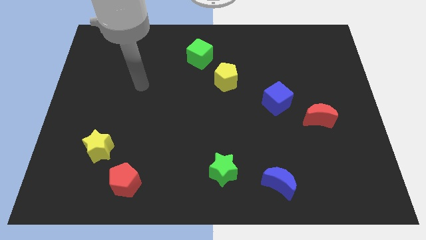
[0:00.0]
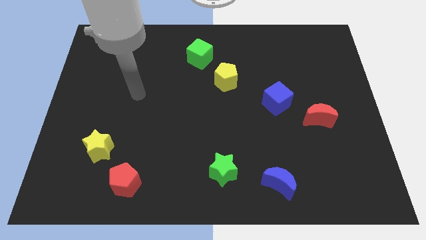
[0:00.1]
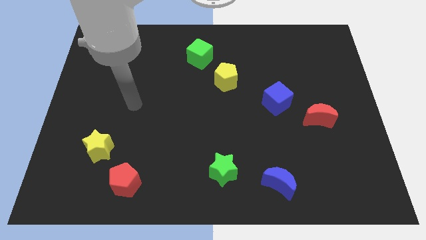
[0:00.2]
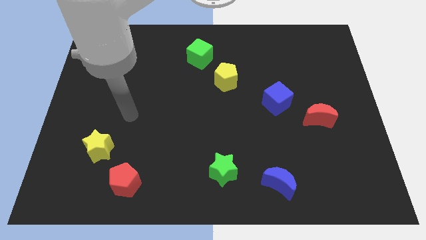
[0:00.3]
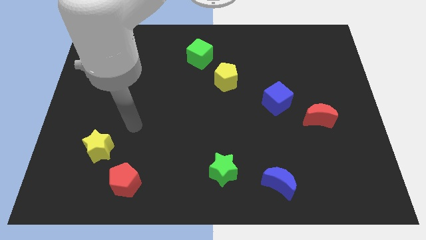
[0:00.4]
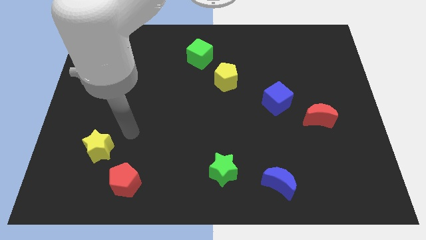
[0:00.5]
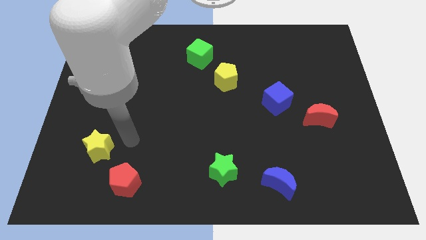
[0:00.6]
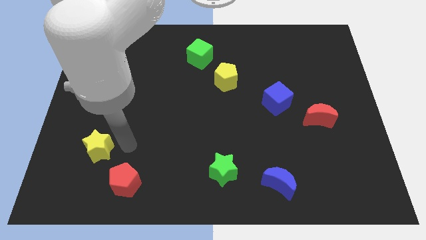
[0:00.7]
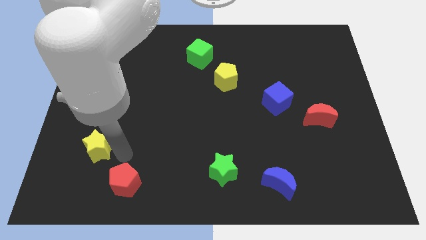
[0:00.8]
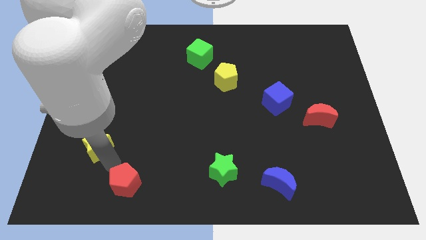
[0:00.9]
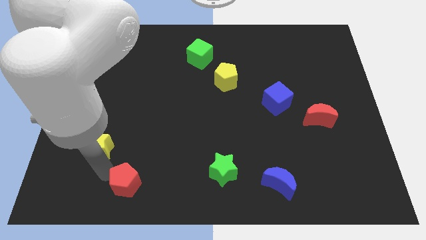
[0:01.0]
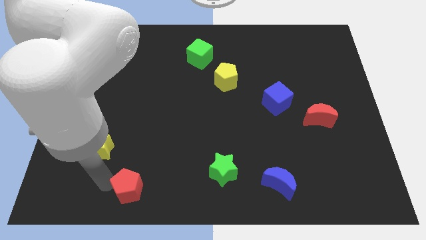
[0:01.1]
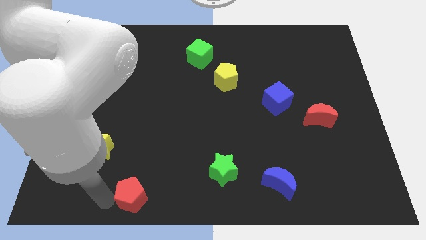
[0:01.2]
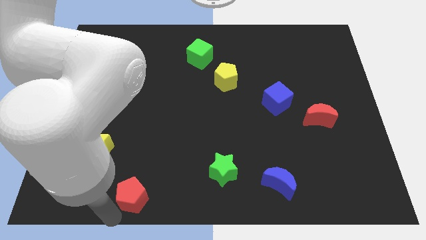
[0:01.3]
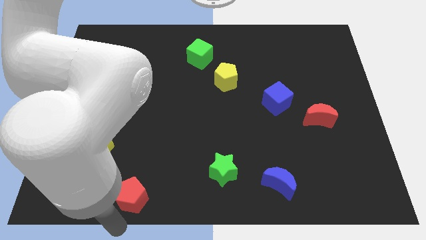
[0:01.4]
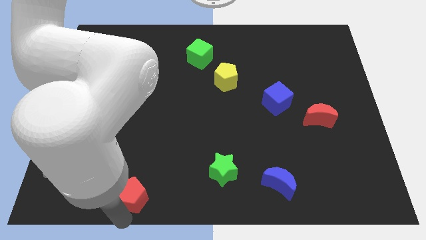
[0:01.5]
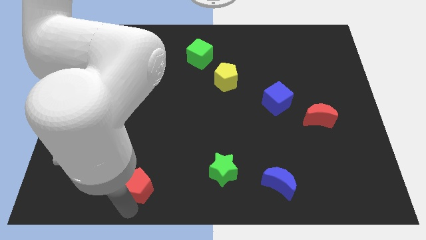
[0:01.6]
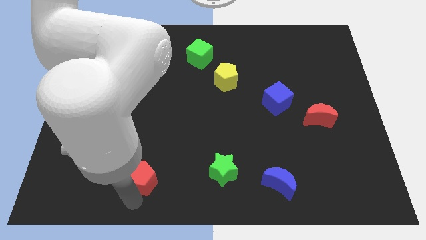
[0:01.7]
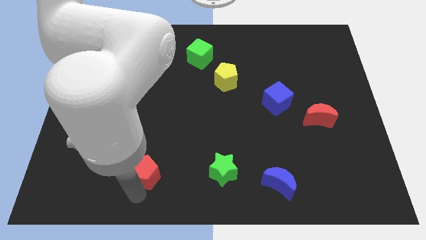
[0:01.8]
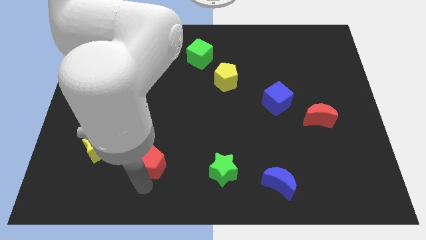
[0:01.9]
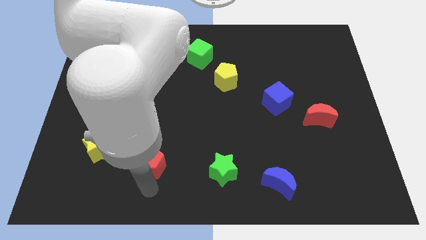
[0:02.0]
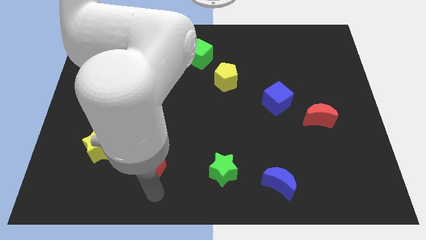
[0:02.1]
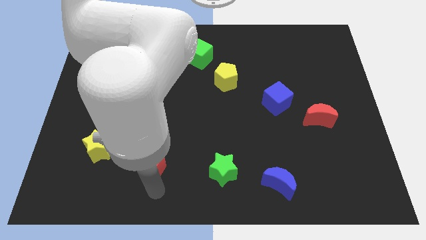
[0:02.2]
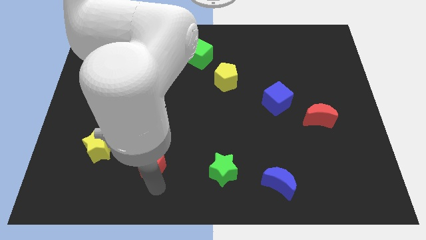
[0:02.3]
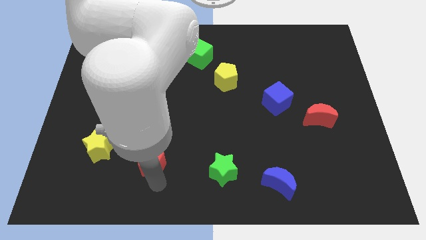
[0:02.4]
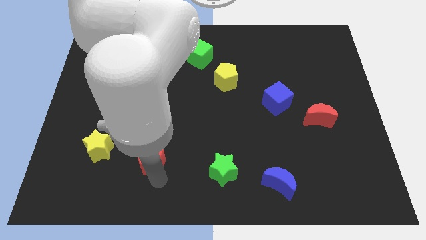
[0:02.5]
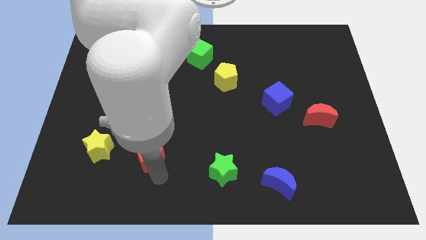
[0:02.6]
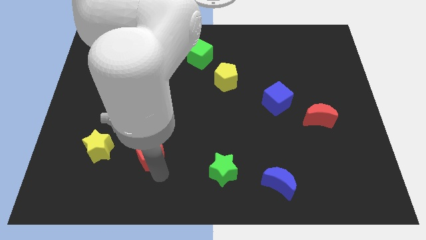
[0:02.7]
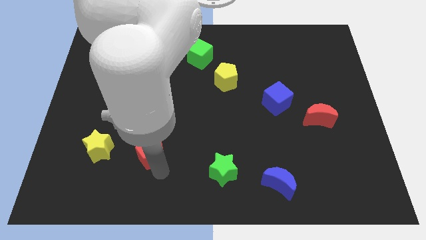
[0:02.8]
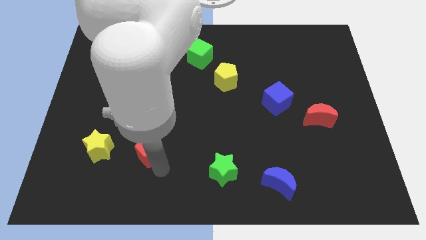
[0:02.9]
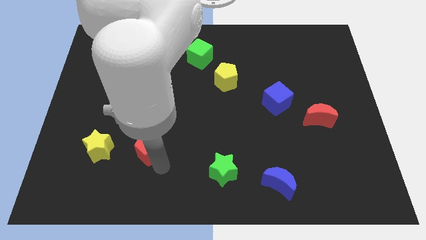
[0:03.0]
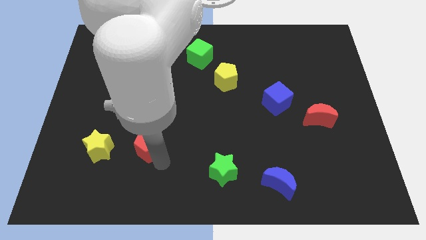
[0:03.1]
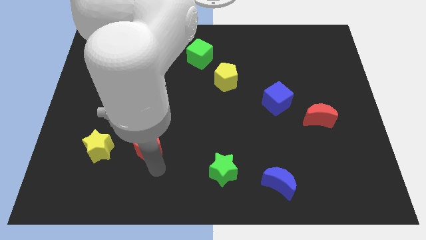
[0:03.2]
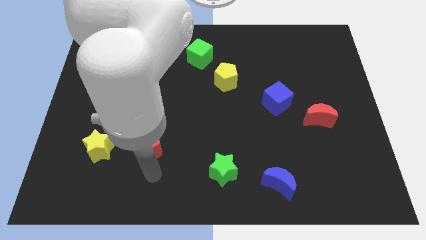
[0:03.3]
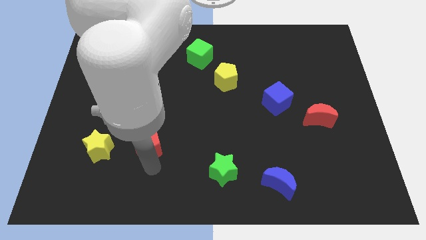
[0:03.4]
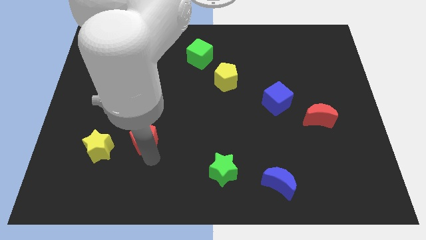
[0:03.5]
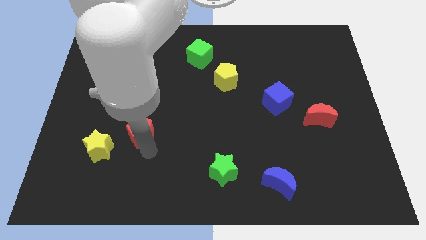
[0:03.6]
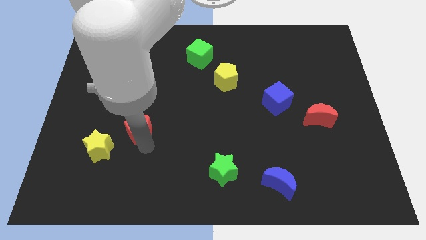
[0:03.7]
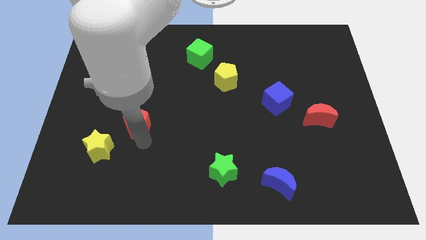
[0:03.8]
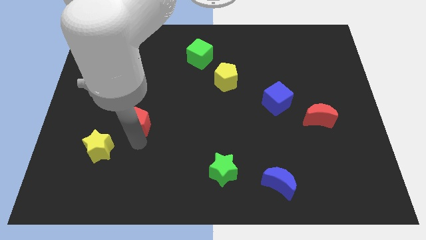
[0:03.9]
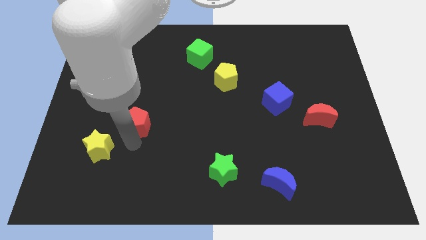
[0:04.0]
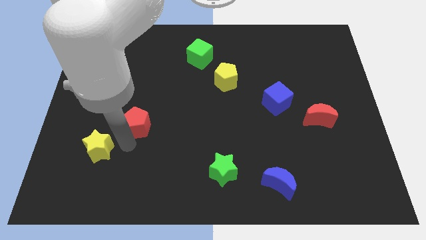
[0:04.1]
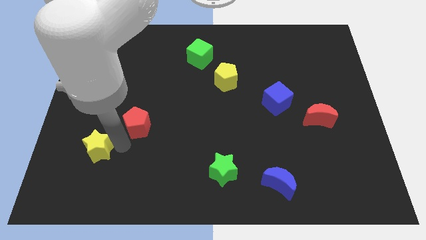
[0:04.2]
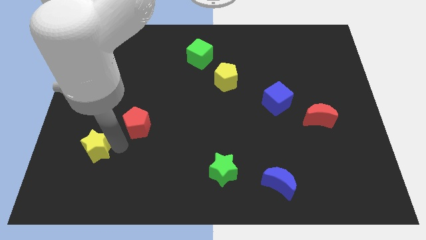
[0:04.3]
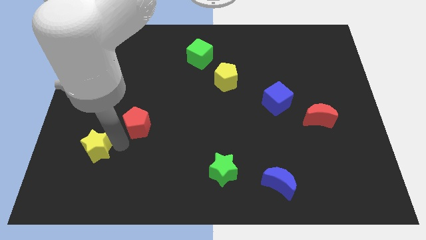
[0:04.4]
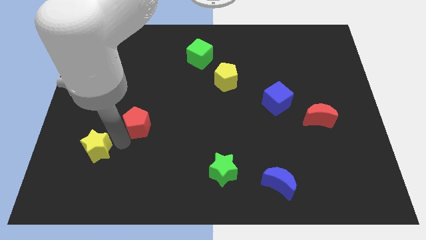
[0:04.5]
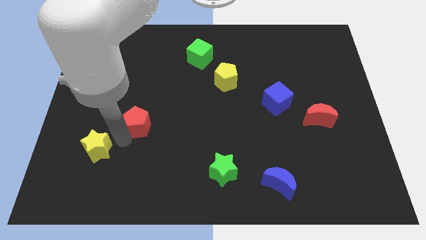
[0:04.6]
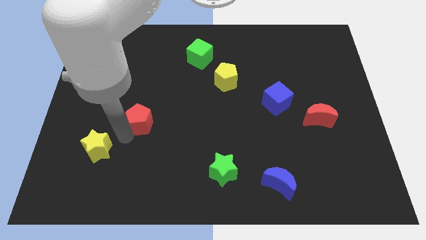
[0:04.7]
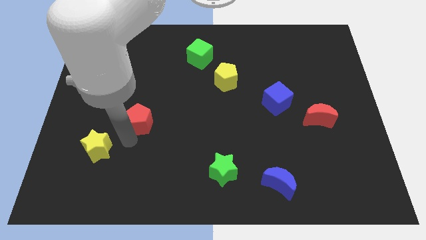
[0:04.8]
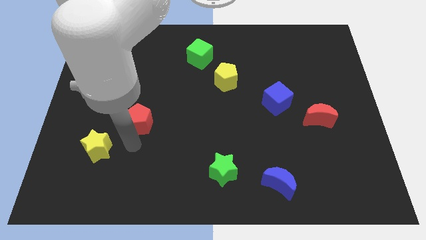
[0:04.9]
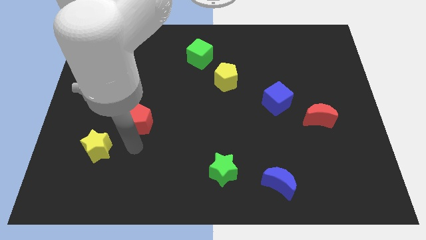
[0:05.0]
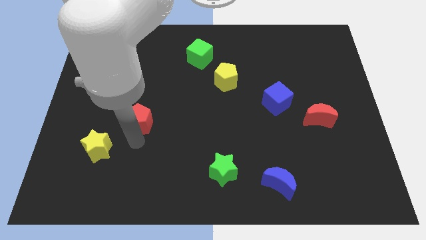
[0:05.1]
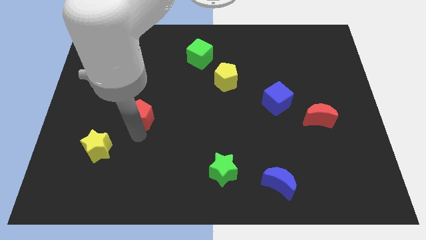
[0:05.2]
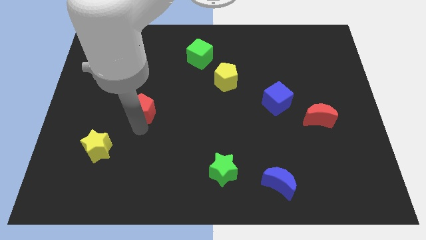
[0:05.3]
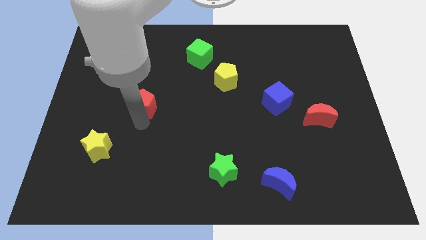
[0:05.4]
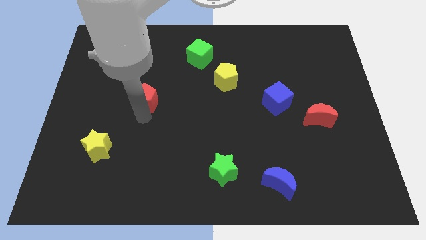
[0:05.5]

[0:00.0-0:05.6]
slide the red pentagon up

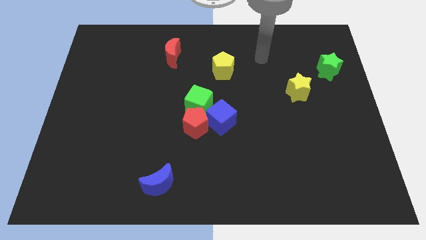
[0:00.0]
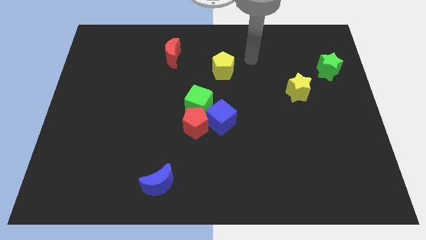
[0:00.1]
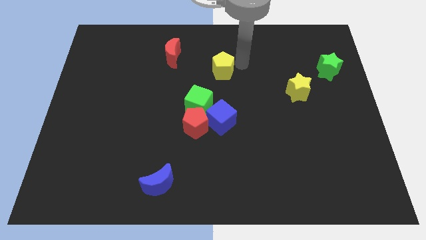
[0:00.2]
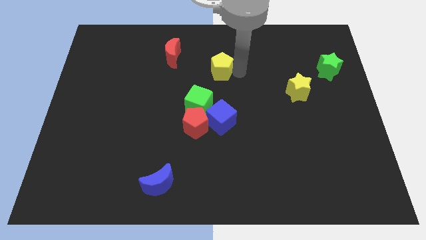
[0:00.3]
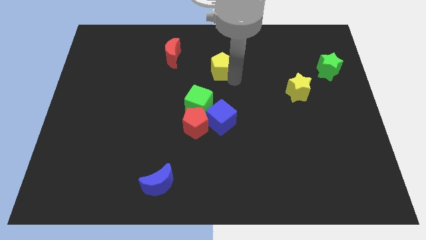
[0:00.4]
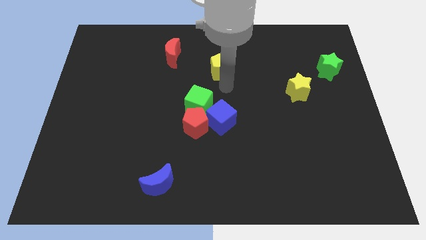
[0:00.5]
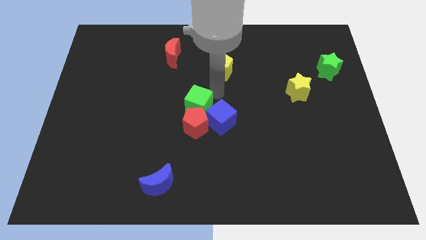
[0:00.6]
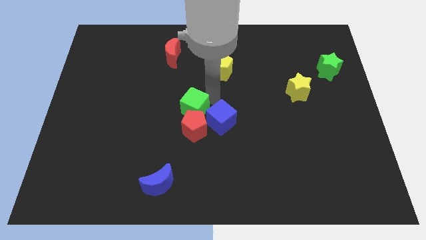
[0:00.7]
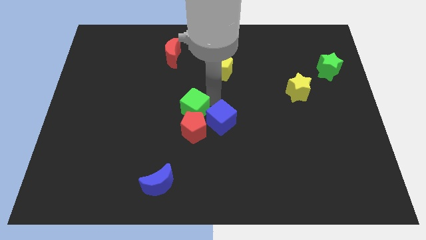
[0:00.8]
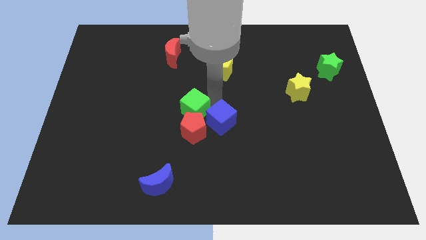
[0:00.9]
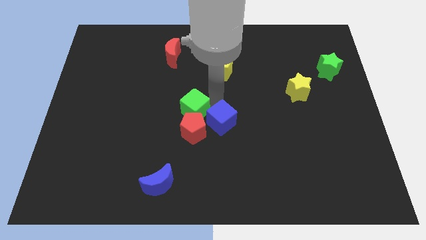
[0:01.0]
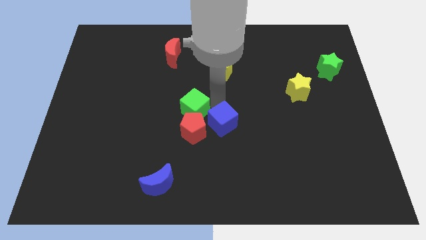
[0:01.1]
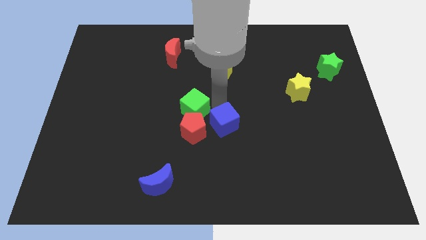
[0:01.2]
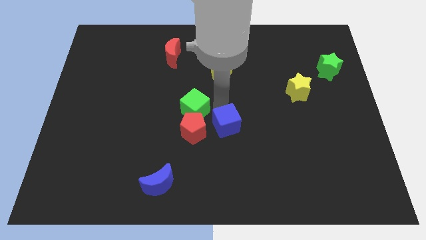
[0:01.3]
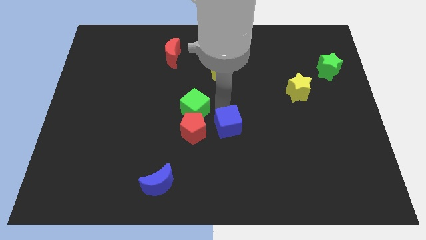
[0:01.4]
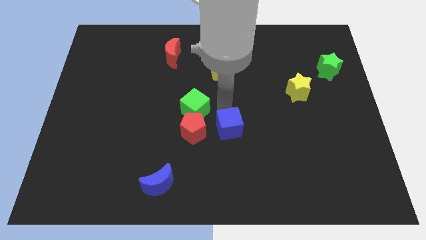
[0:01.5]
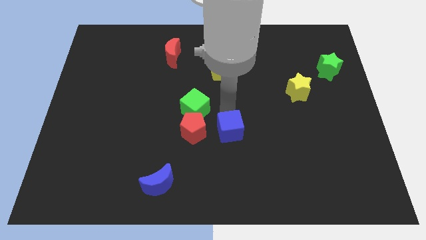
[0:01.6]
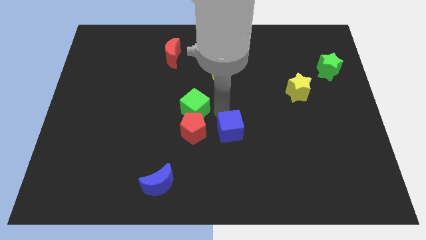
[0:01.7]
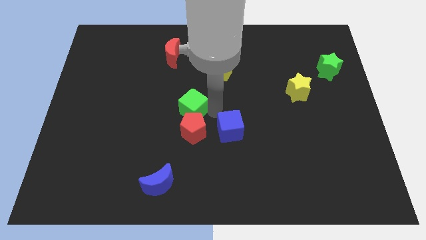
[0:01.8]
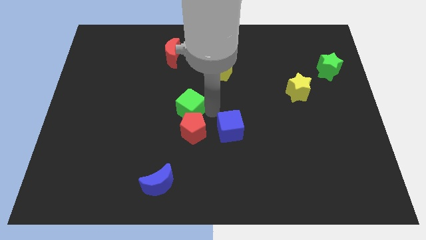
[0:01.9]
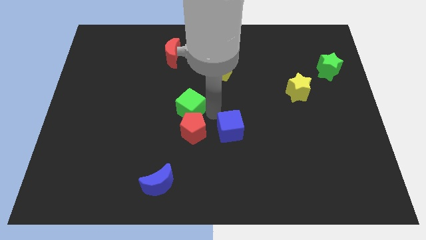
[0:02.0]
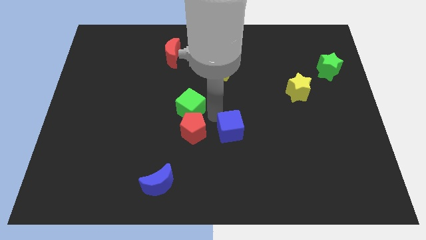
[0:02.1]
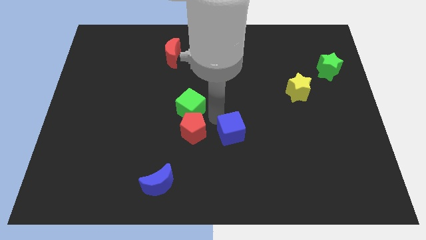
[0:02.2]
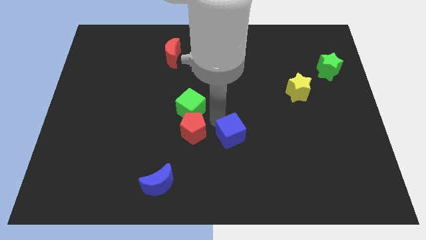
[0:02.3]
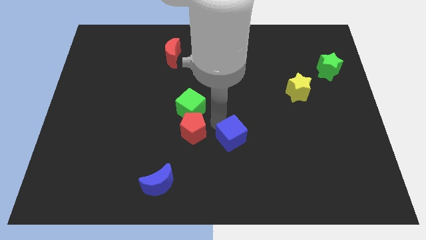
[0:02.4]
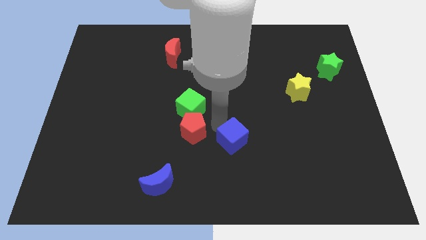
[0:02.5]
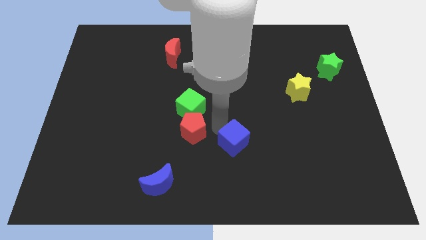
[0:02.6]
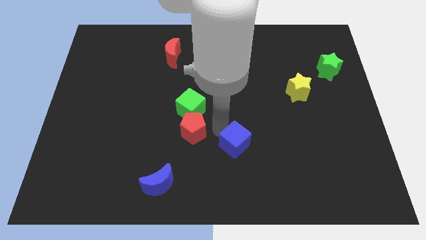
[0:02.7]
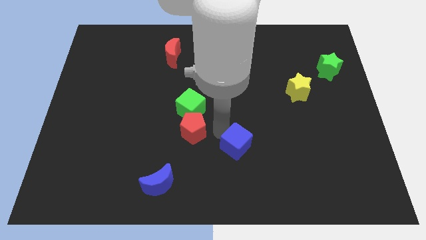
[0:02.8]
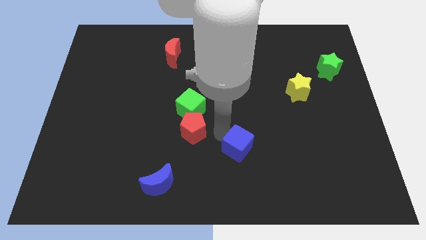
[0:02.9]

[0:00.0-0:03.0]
slightly slide the blue cube down and right
